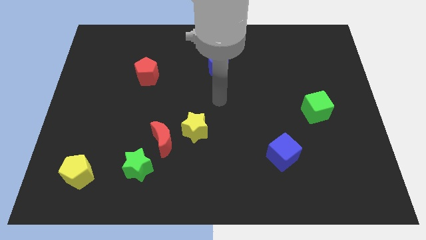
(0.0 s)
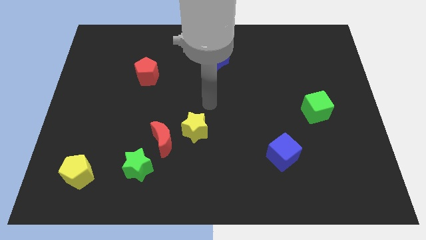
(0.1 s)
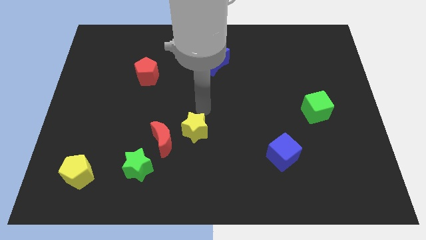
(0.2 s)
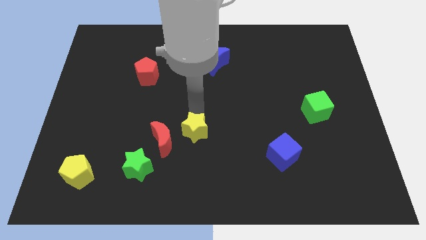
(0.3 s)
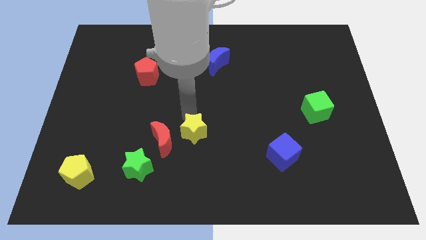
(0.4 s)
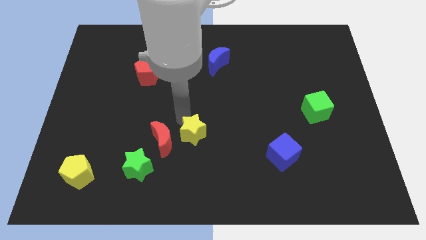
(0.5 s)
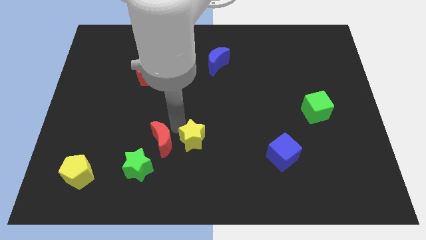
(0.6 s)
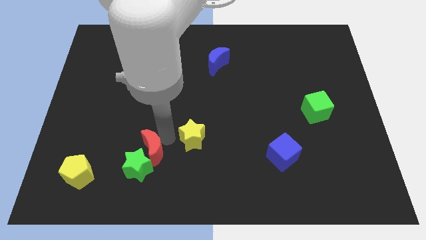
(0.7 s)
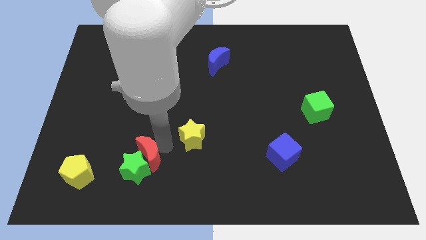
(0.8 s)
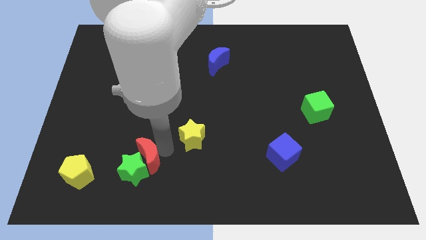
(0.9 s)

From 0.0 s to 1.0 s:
move the yellow star away from the red moon

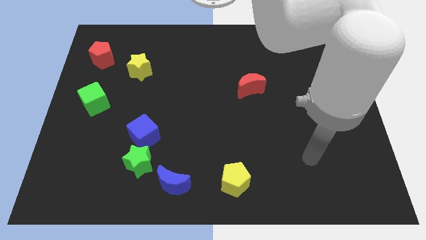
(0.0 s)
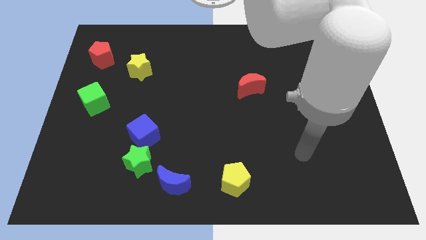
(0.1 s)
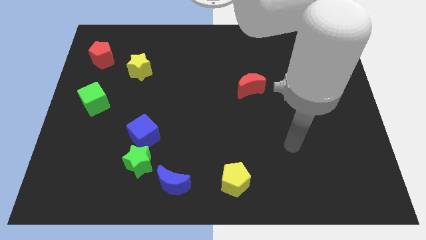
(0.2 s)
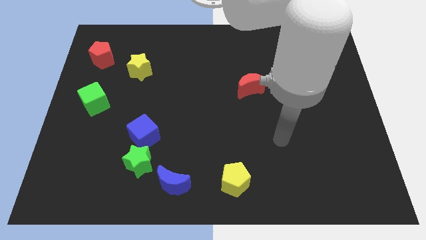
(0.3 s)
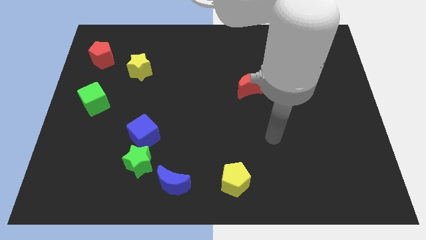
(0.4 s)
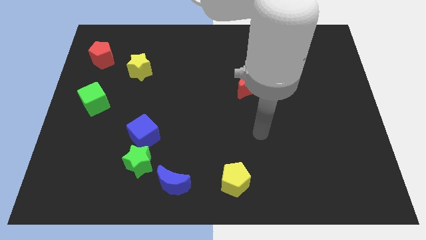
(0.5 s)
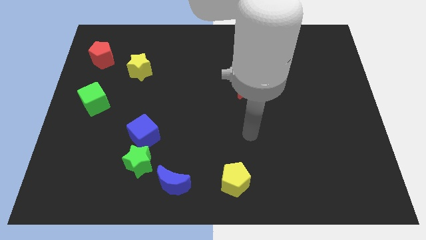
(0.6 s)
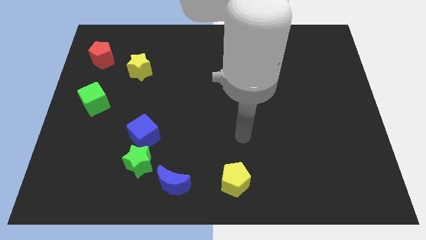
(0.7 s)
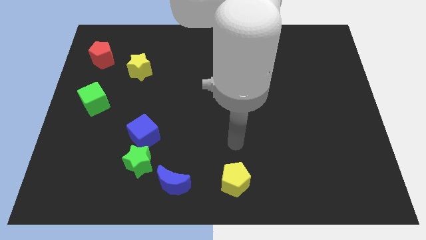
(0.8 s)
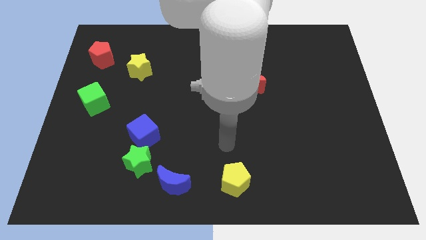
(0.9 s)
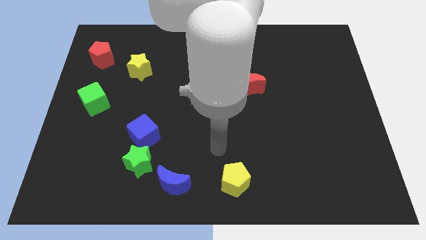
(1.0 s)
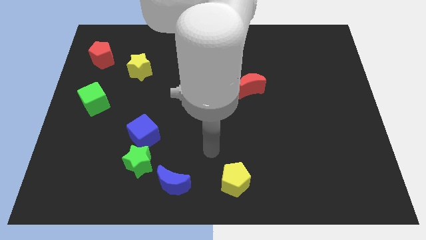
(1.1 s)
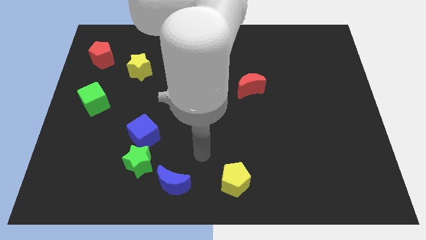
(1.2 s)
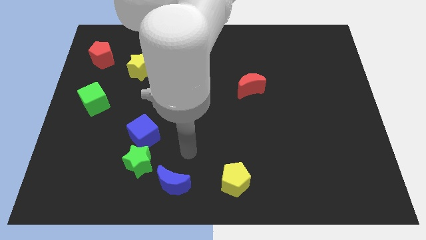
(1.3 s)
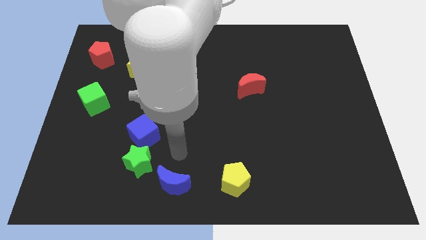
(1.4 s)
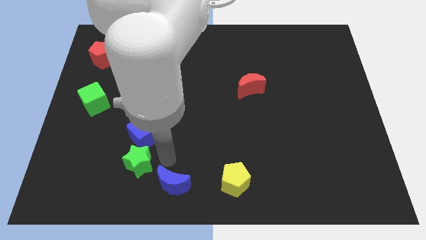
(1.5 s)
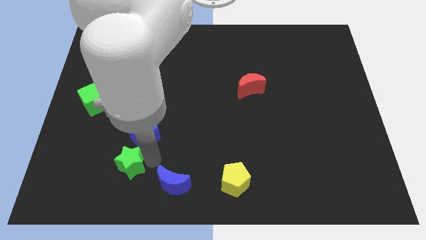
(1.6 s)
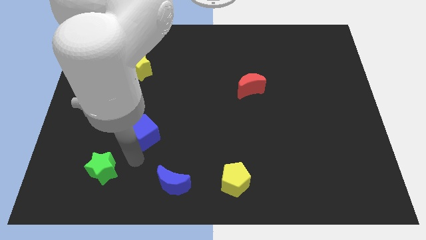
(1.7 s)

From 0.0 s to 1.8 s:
move the blue cube away from the green star

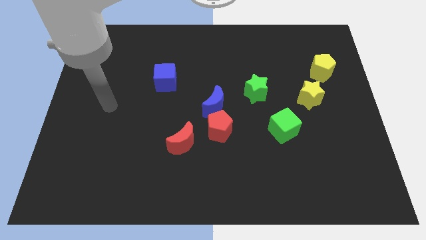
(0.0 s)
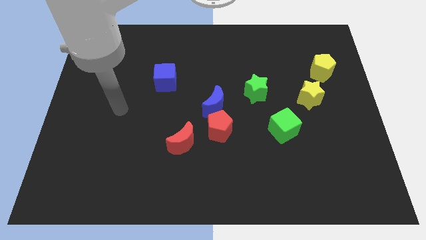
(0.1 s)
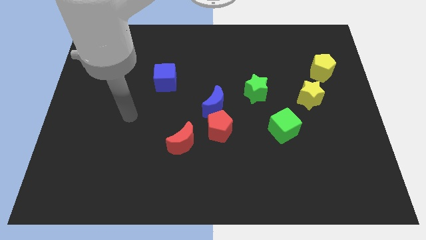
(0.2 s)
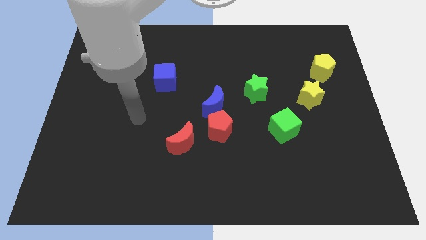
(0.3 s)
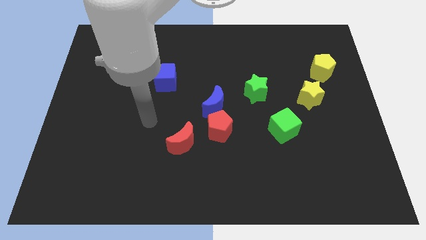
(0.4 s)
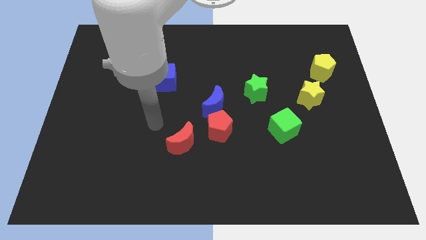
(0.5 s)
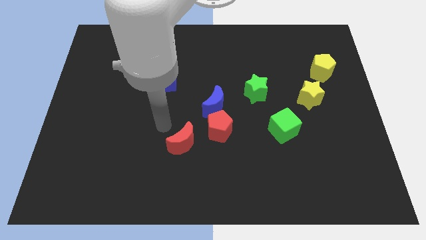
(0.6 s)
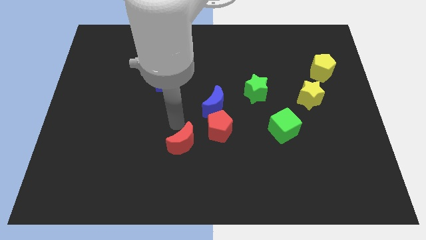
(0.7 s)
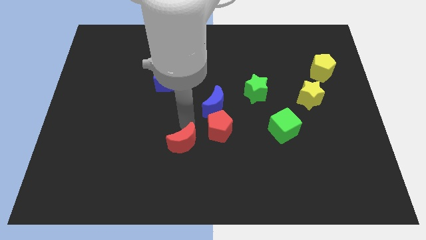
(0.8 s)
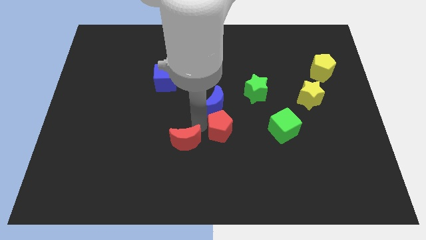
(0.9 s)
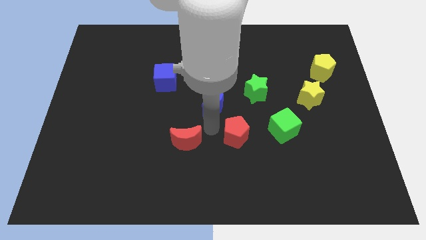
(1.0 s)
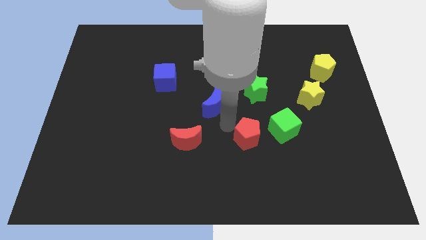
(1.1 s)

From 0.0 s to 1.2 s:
move the blue moon away from the red pentagon

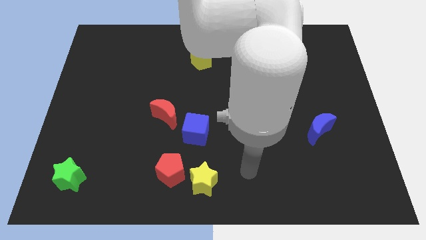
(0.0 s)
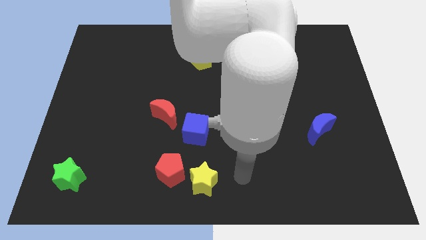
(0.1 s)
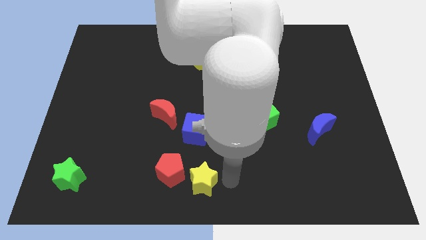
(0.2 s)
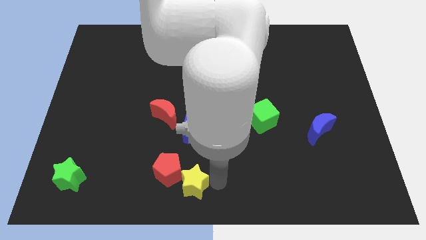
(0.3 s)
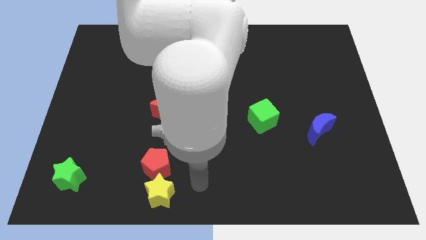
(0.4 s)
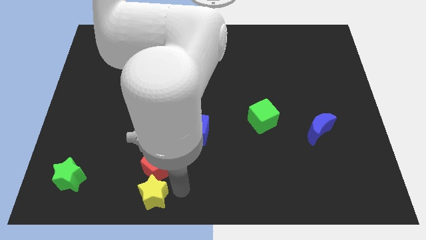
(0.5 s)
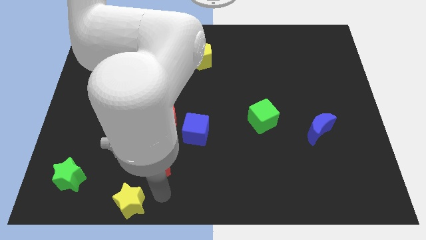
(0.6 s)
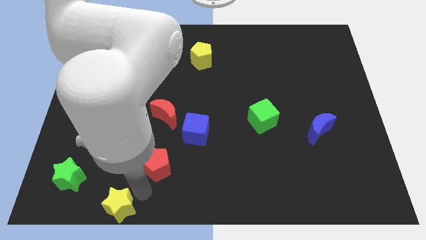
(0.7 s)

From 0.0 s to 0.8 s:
pull the red pentagon apart from the yellow star

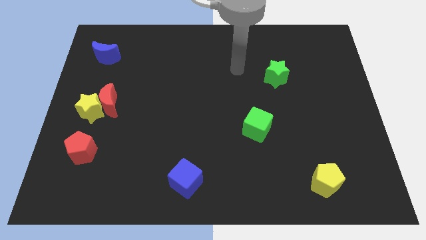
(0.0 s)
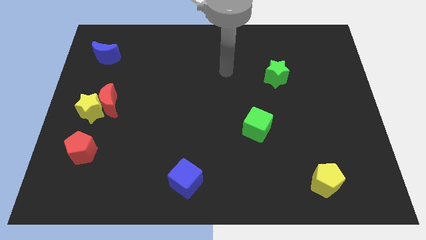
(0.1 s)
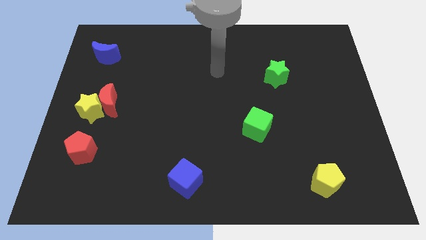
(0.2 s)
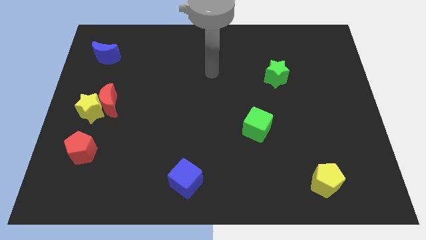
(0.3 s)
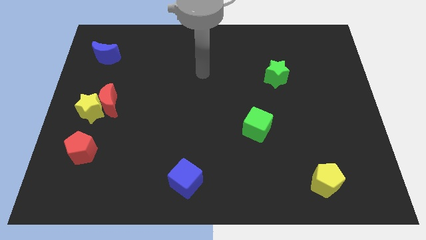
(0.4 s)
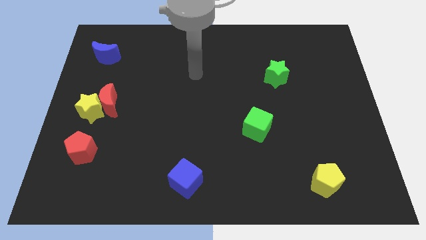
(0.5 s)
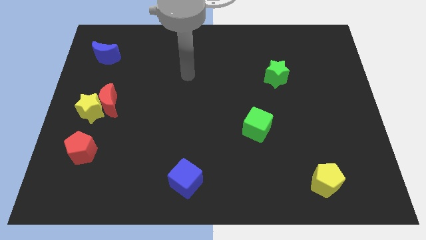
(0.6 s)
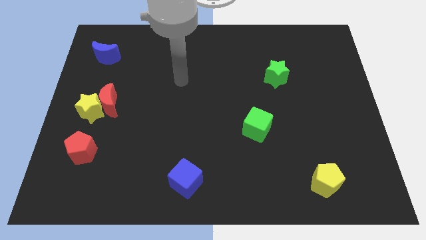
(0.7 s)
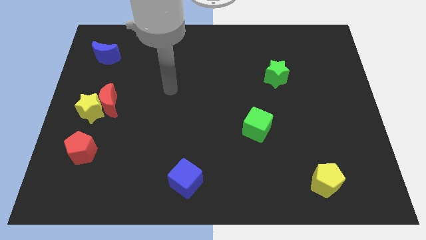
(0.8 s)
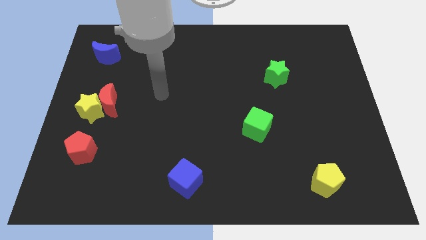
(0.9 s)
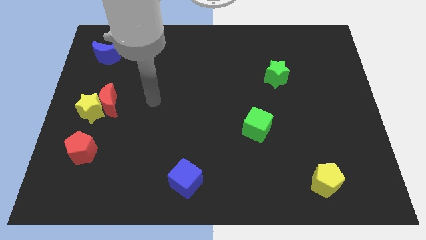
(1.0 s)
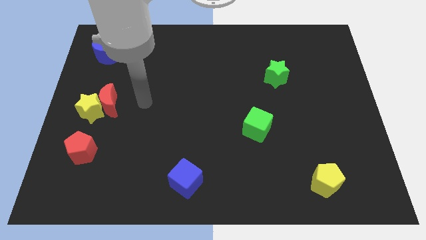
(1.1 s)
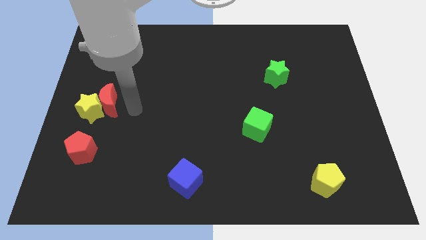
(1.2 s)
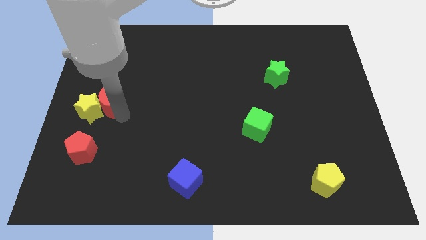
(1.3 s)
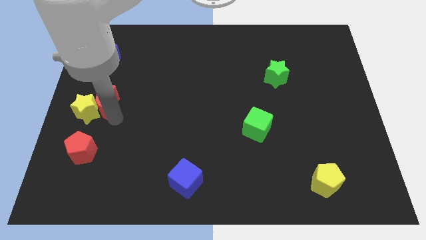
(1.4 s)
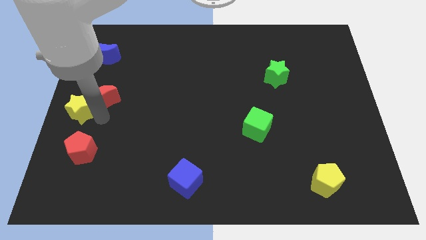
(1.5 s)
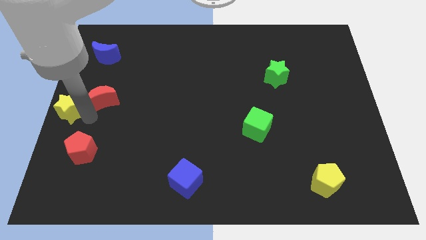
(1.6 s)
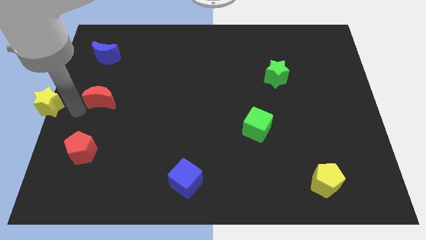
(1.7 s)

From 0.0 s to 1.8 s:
separate the red moon from the yellow star

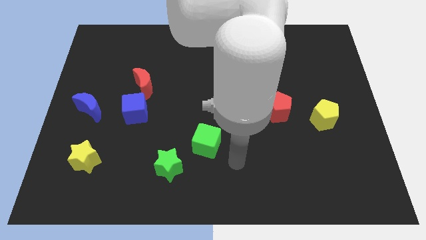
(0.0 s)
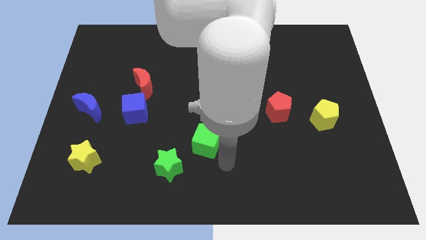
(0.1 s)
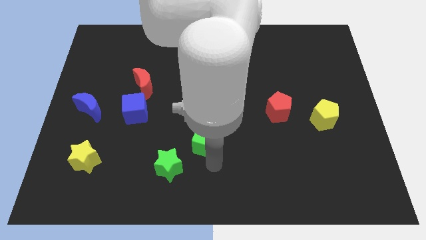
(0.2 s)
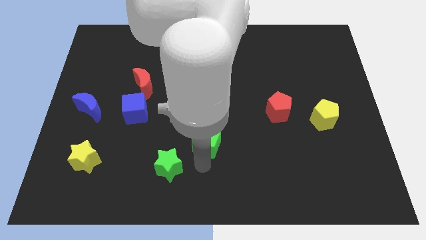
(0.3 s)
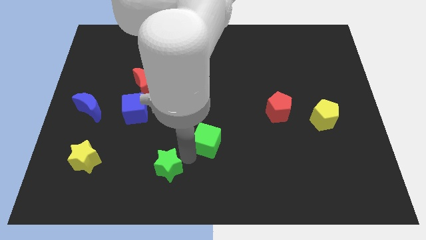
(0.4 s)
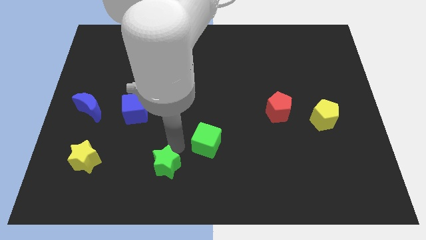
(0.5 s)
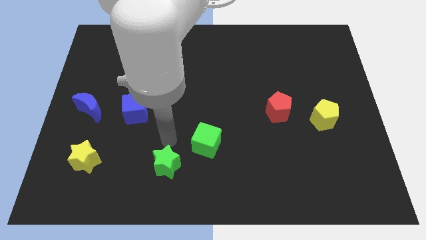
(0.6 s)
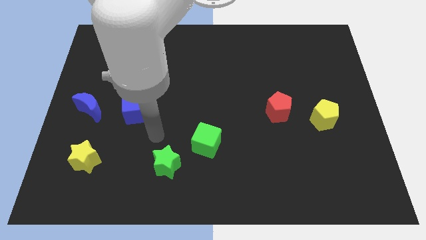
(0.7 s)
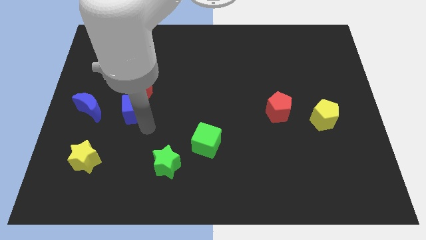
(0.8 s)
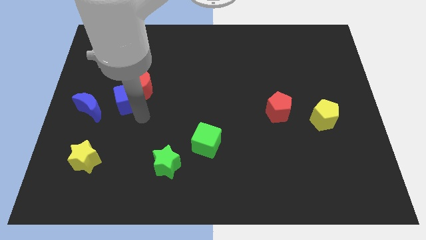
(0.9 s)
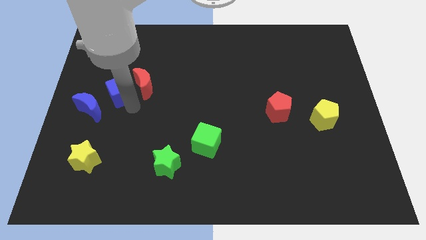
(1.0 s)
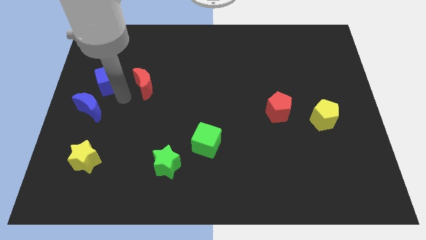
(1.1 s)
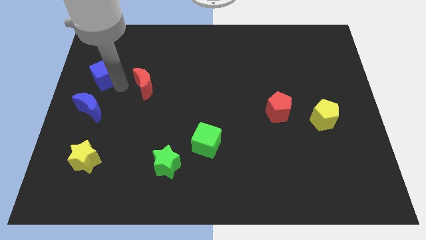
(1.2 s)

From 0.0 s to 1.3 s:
separate the red moon from the blue cube

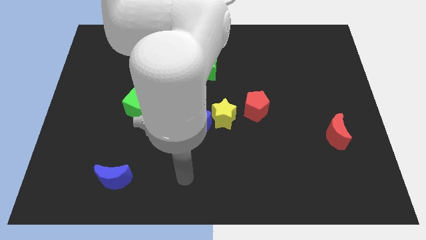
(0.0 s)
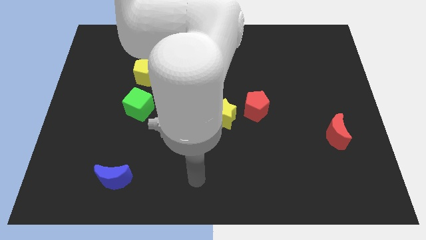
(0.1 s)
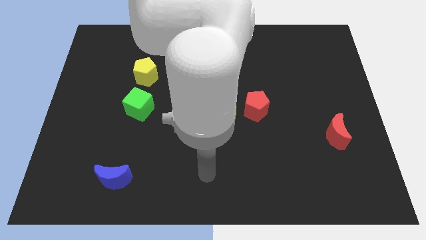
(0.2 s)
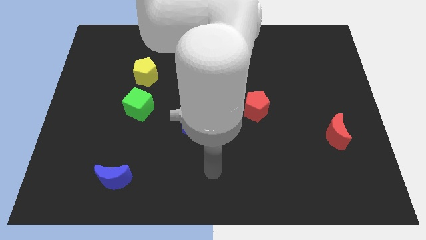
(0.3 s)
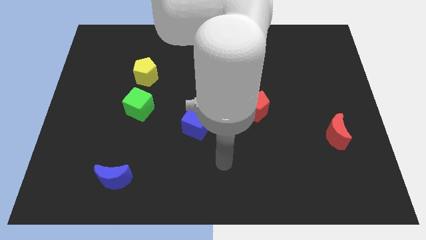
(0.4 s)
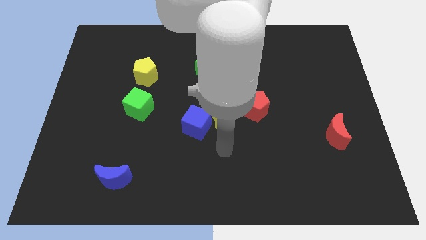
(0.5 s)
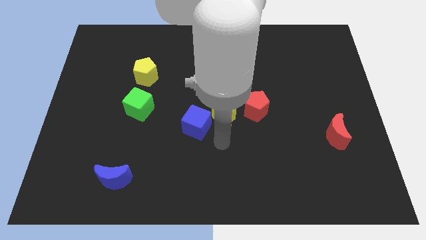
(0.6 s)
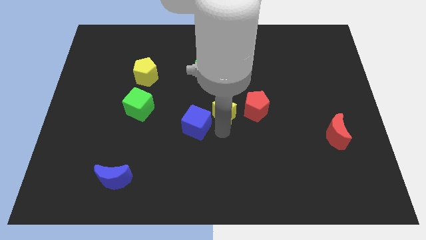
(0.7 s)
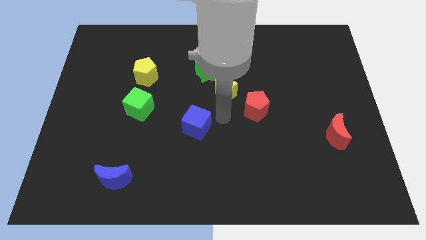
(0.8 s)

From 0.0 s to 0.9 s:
move the blue cube away from the yellow star

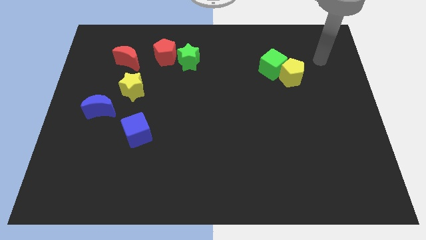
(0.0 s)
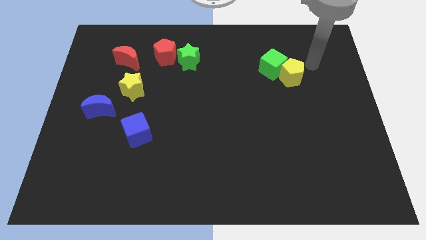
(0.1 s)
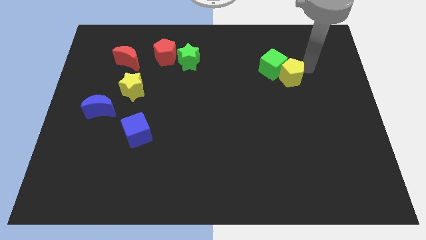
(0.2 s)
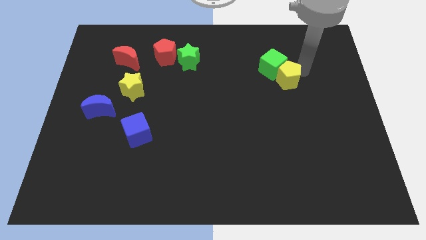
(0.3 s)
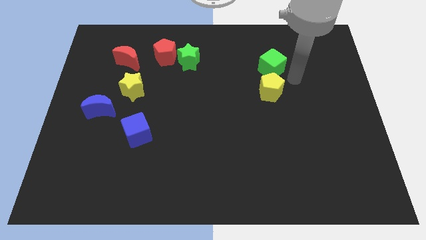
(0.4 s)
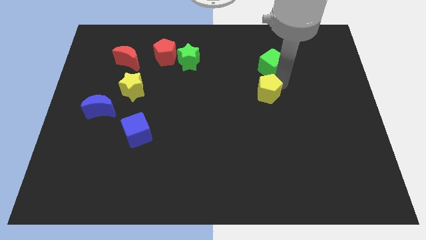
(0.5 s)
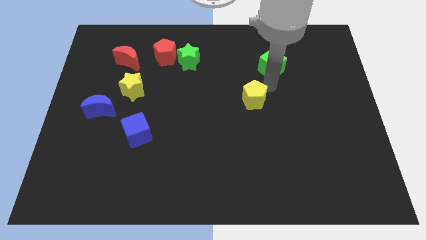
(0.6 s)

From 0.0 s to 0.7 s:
pull the green cube apart from the yellow pentagon

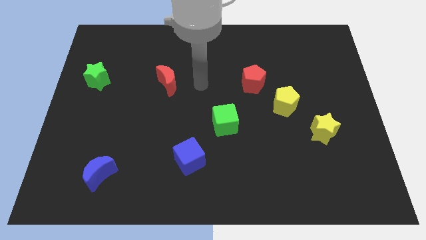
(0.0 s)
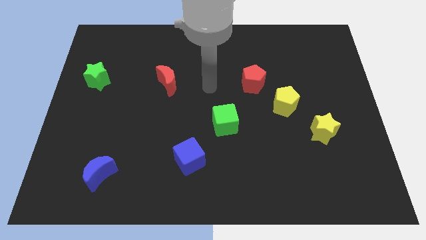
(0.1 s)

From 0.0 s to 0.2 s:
move the red pentagon away from the yellow pentagon
